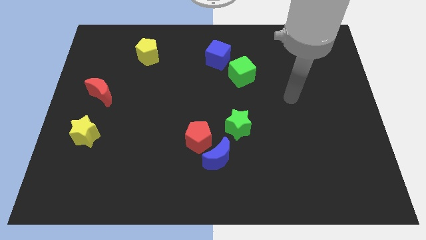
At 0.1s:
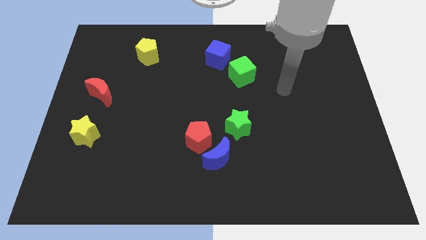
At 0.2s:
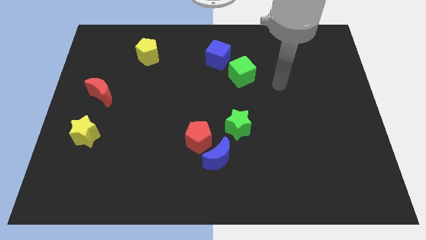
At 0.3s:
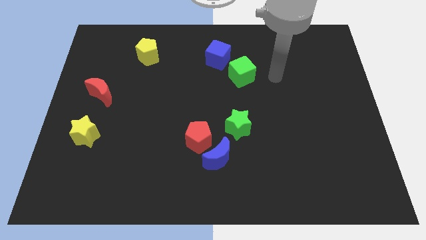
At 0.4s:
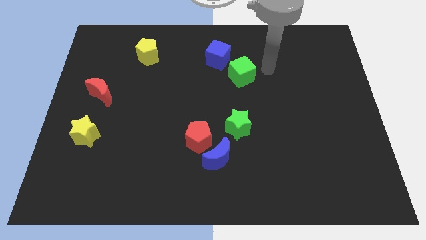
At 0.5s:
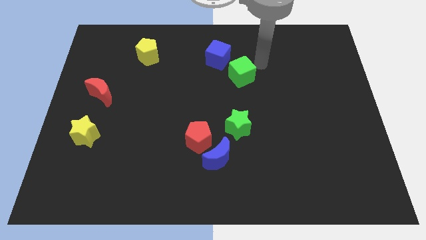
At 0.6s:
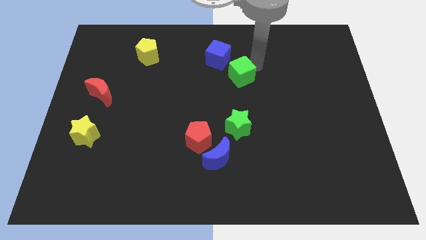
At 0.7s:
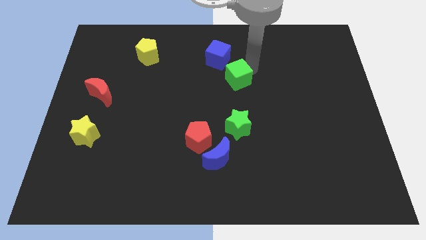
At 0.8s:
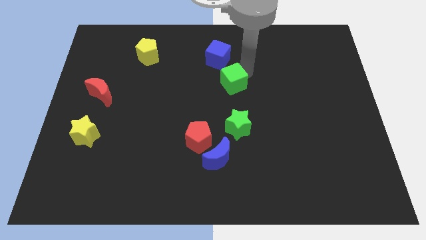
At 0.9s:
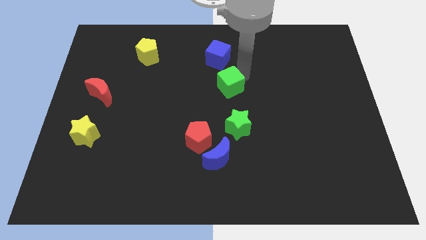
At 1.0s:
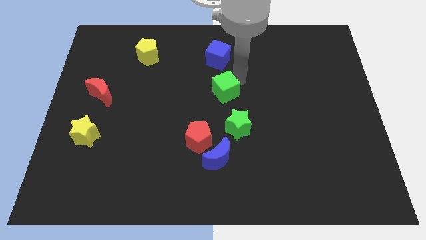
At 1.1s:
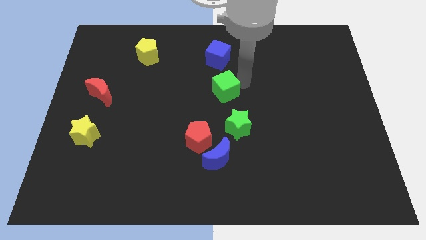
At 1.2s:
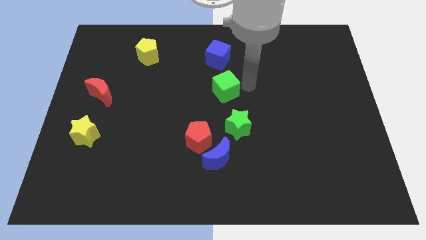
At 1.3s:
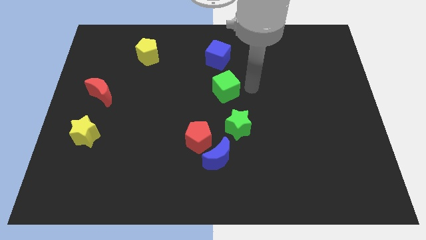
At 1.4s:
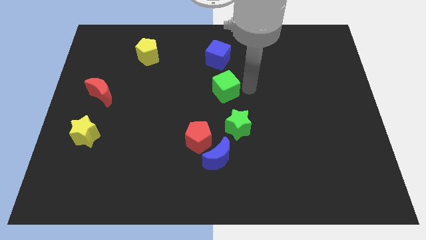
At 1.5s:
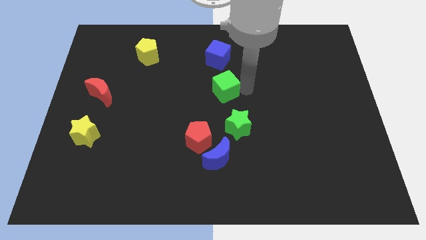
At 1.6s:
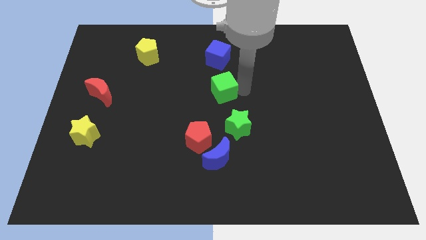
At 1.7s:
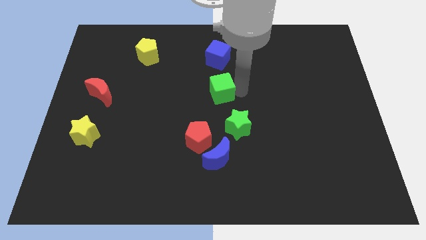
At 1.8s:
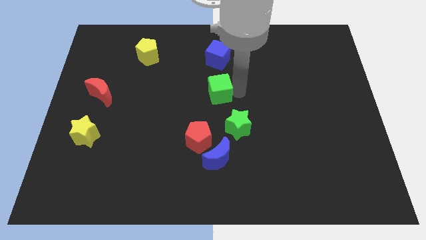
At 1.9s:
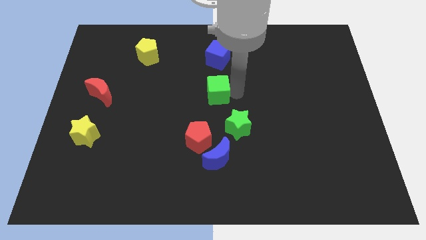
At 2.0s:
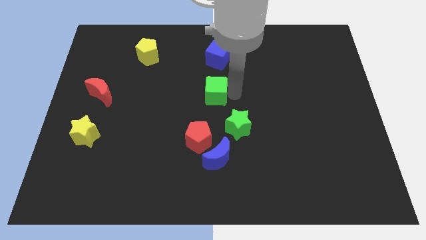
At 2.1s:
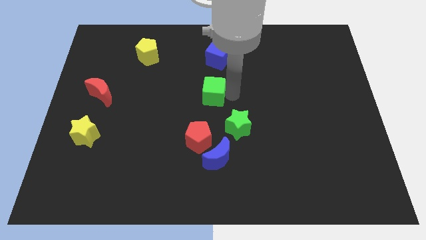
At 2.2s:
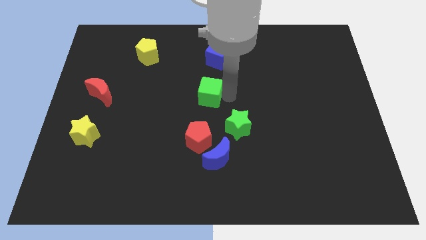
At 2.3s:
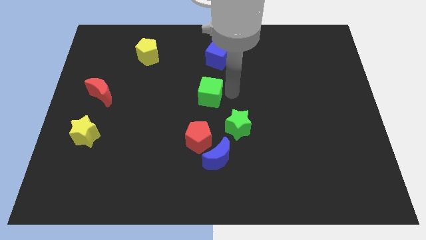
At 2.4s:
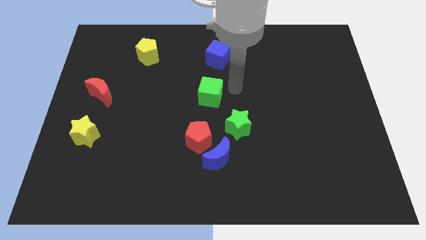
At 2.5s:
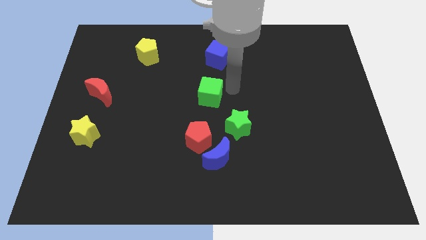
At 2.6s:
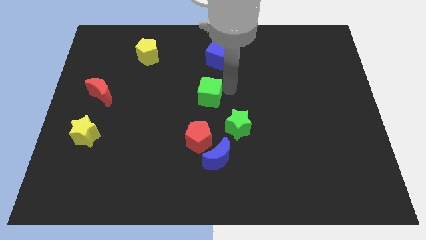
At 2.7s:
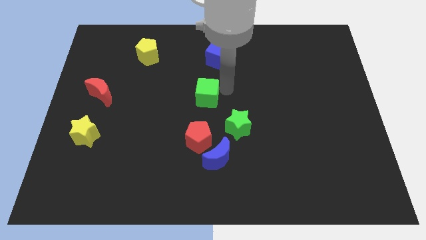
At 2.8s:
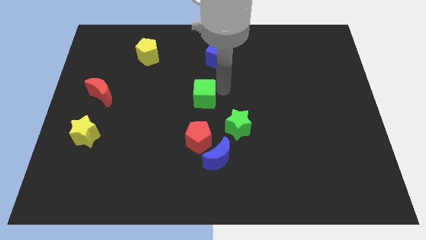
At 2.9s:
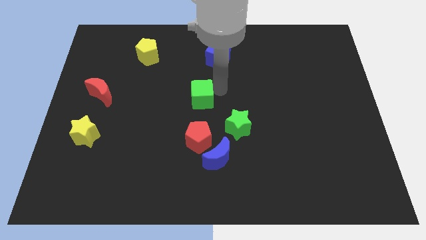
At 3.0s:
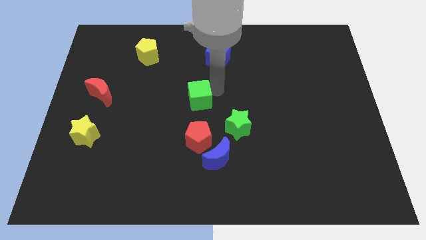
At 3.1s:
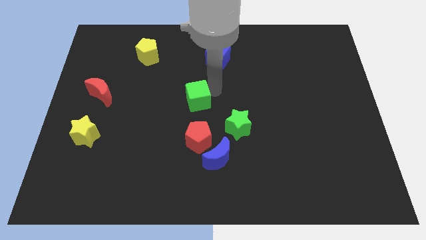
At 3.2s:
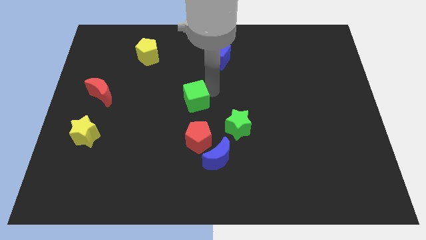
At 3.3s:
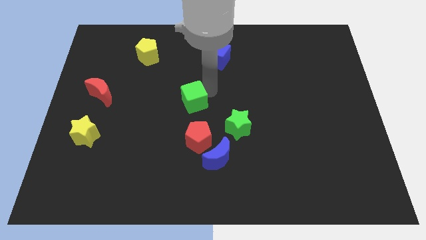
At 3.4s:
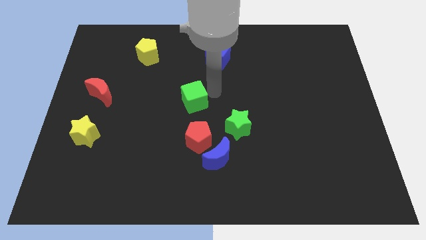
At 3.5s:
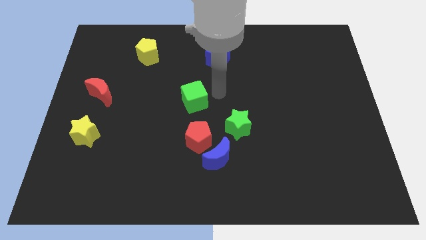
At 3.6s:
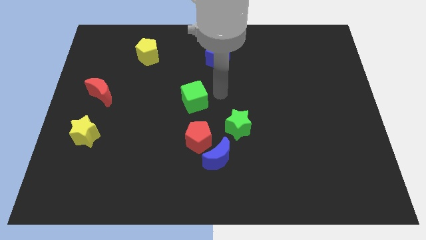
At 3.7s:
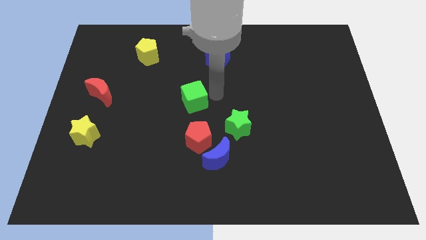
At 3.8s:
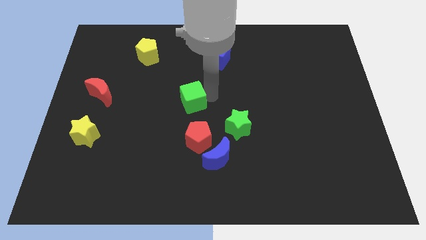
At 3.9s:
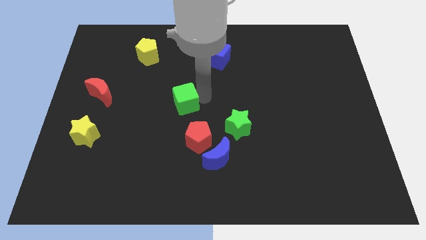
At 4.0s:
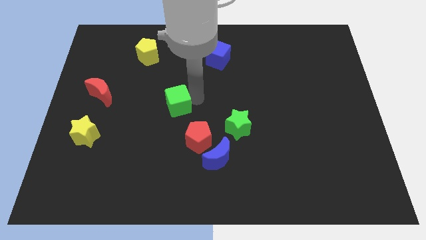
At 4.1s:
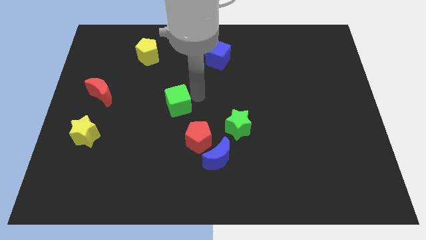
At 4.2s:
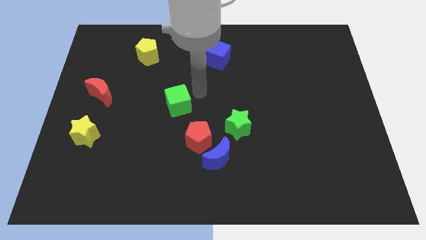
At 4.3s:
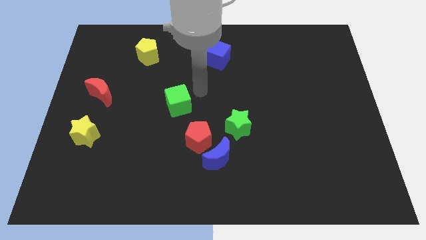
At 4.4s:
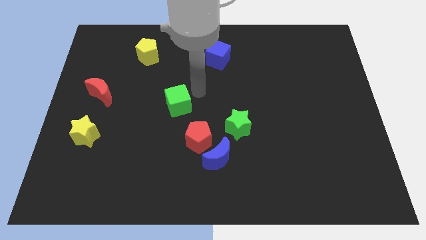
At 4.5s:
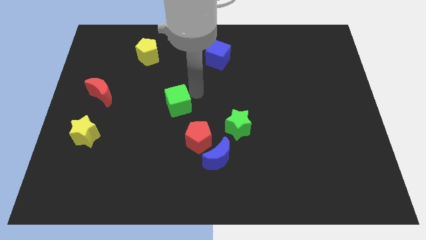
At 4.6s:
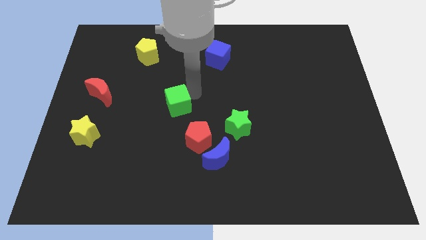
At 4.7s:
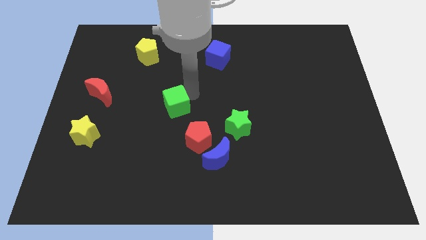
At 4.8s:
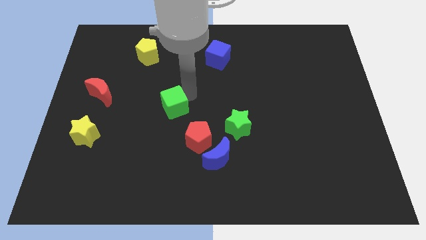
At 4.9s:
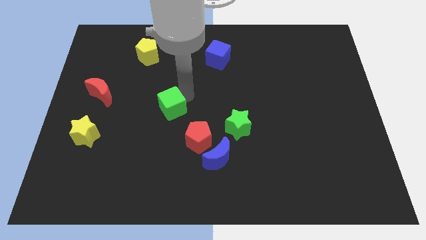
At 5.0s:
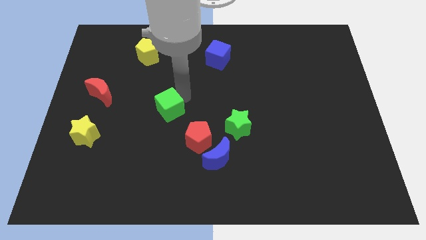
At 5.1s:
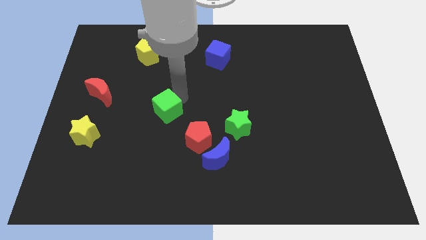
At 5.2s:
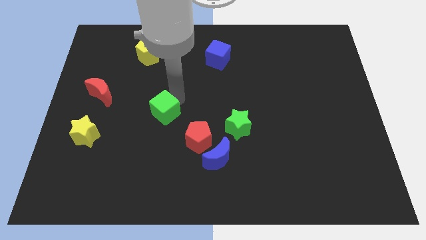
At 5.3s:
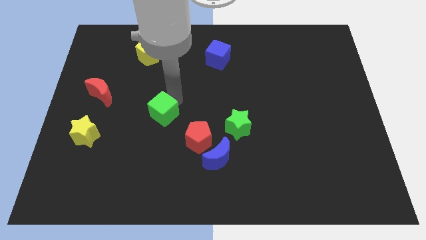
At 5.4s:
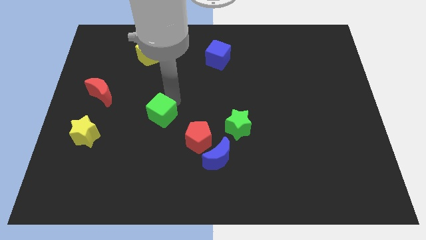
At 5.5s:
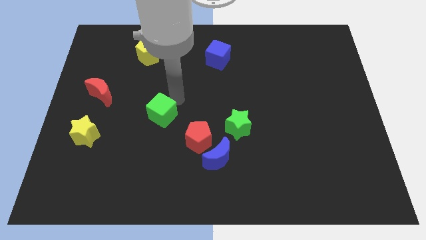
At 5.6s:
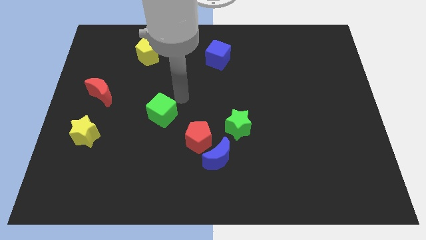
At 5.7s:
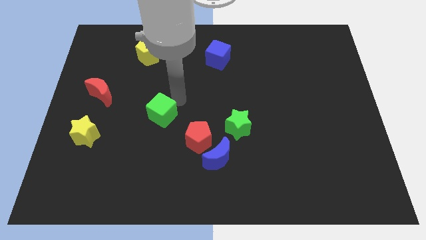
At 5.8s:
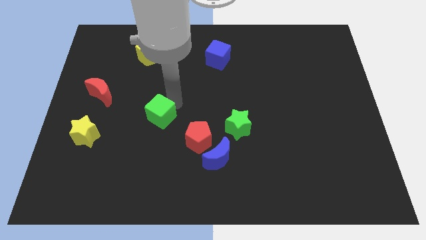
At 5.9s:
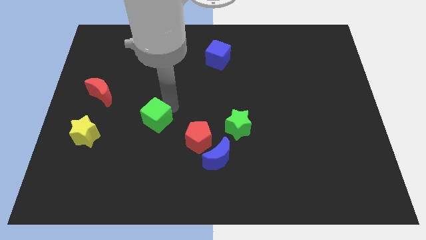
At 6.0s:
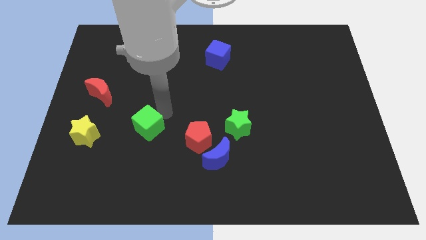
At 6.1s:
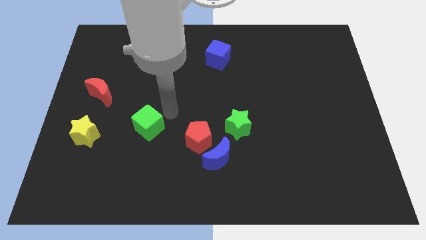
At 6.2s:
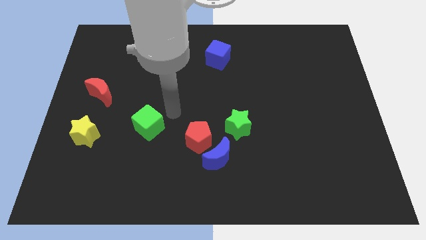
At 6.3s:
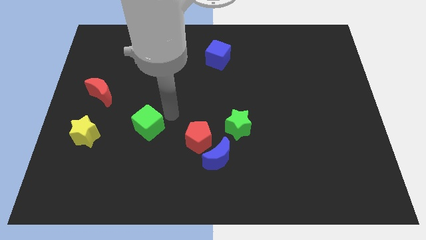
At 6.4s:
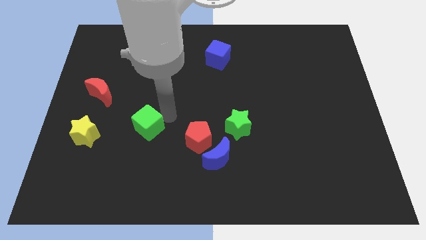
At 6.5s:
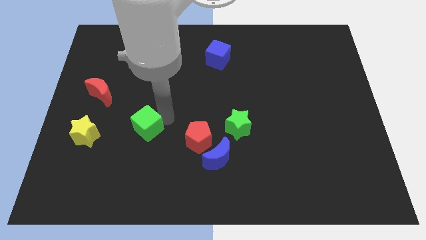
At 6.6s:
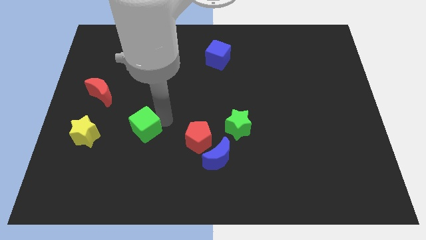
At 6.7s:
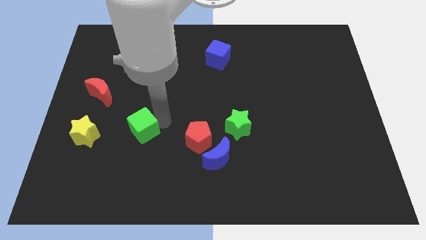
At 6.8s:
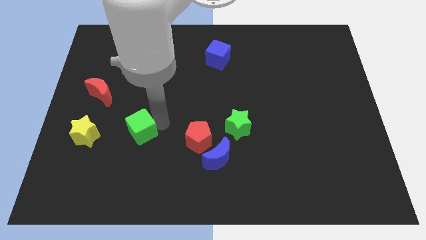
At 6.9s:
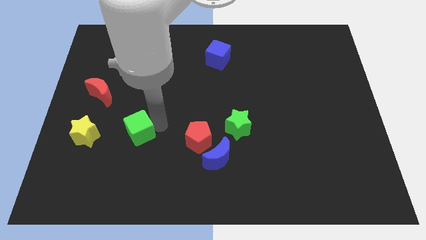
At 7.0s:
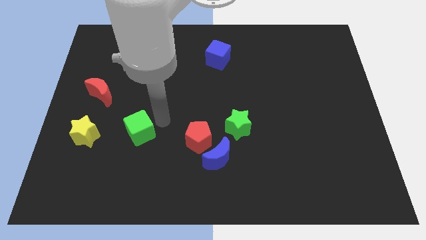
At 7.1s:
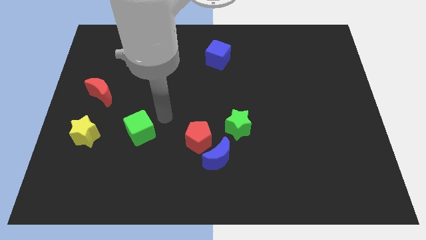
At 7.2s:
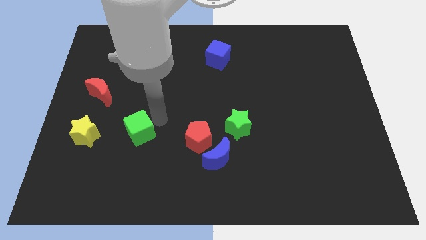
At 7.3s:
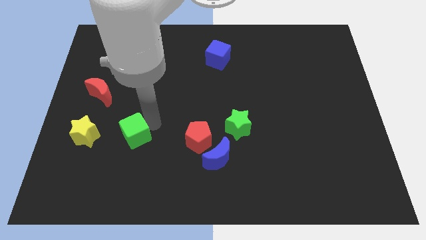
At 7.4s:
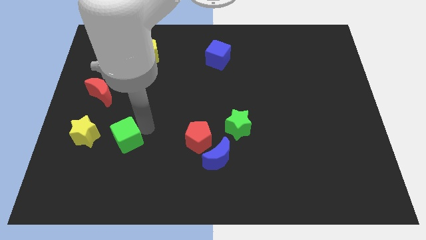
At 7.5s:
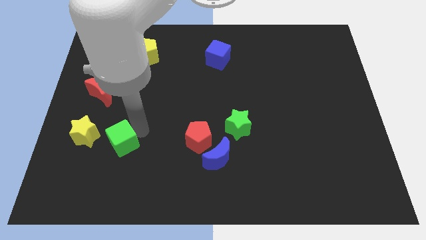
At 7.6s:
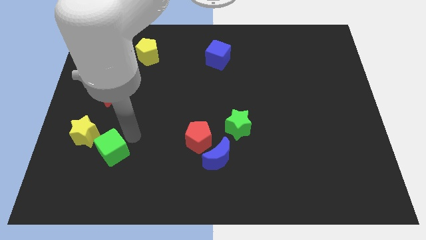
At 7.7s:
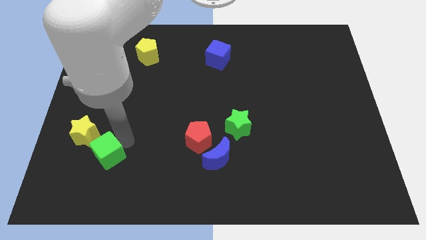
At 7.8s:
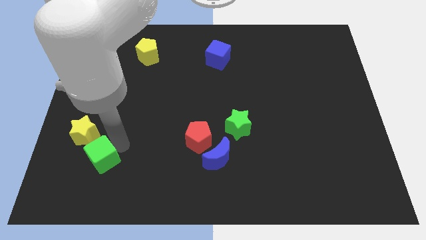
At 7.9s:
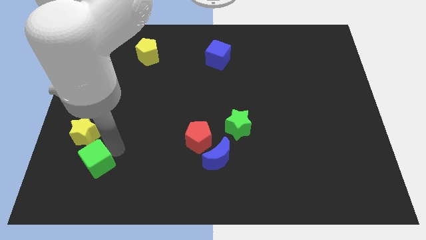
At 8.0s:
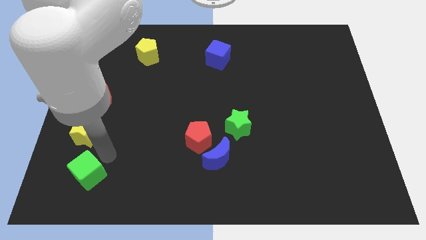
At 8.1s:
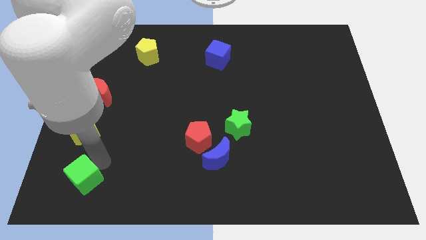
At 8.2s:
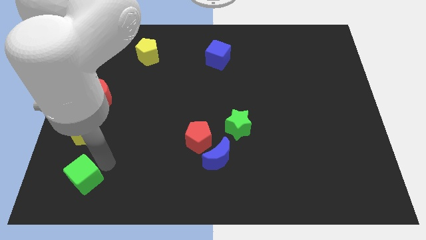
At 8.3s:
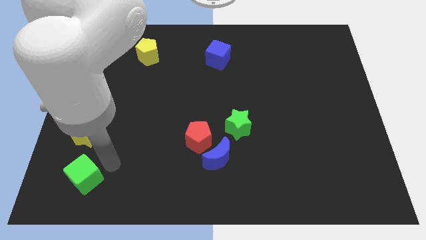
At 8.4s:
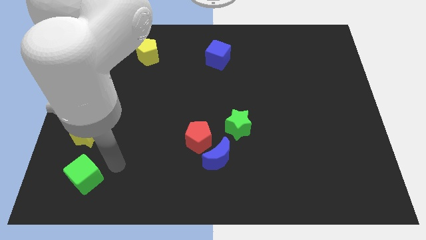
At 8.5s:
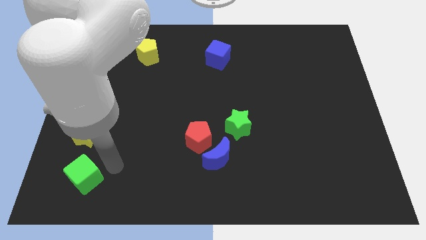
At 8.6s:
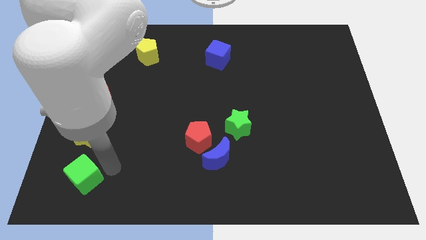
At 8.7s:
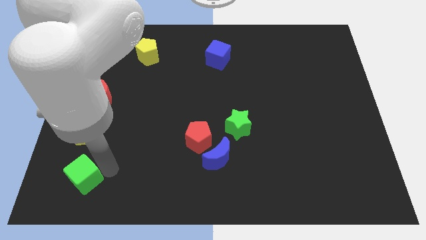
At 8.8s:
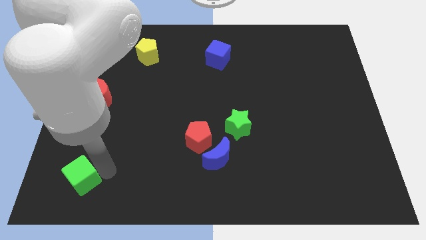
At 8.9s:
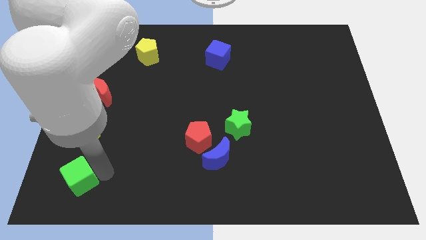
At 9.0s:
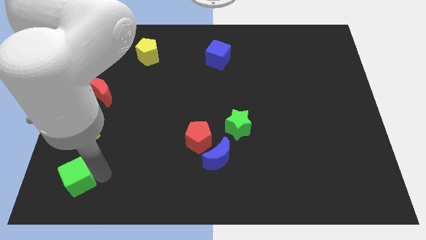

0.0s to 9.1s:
slide the green cube to the bottom left
